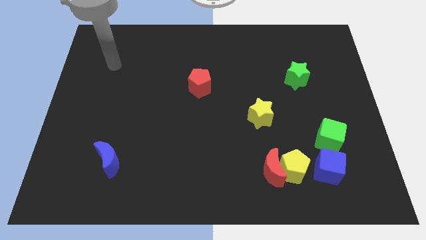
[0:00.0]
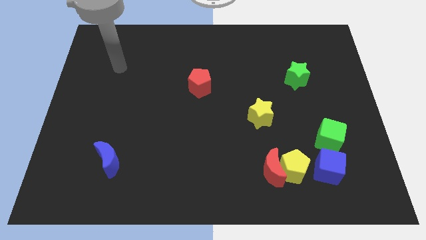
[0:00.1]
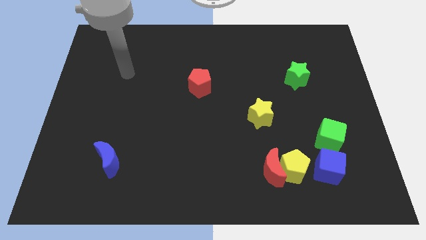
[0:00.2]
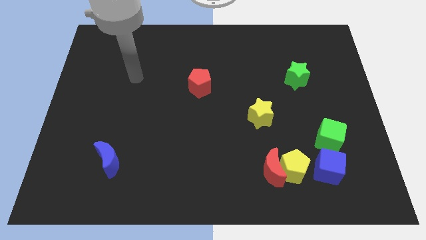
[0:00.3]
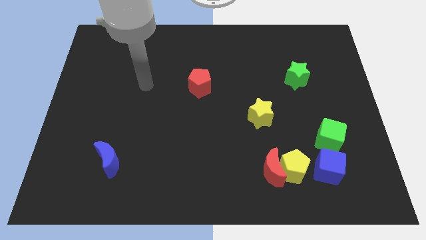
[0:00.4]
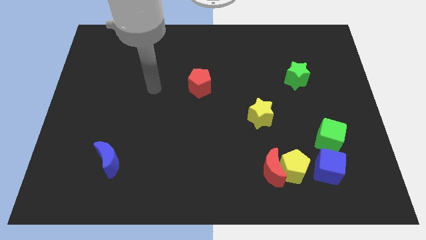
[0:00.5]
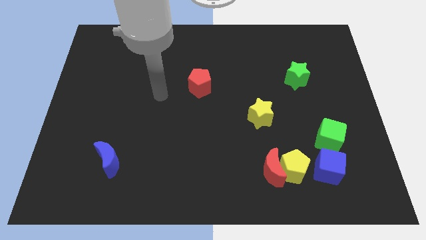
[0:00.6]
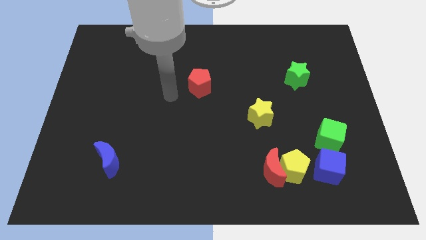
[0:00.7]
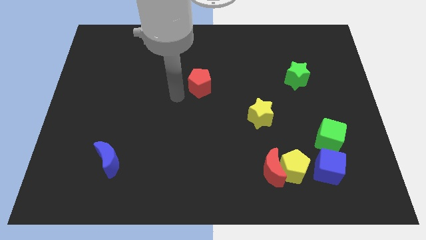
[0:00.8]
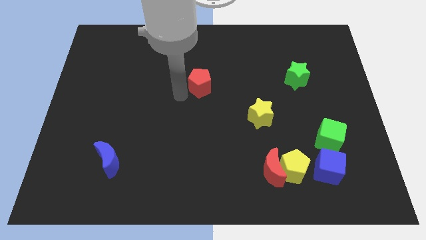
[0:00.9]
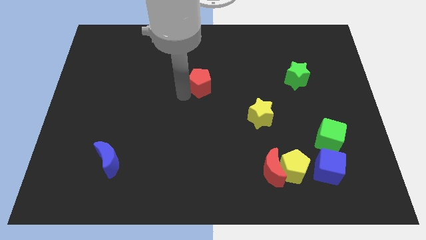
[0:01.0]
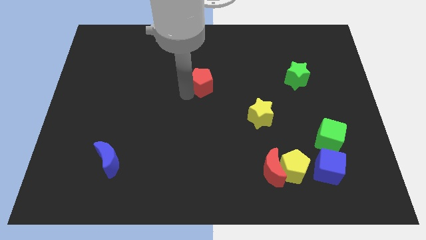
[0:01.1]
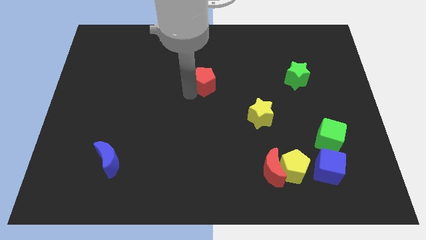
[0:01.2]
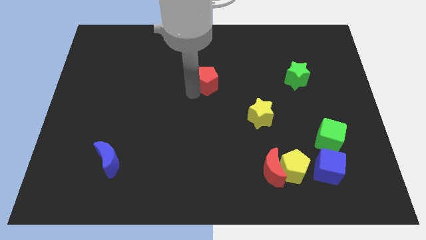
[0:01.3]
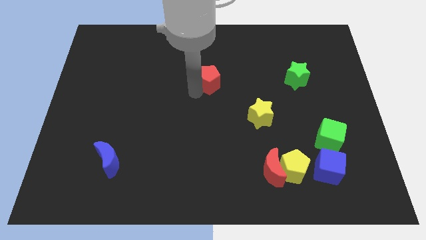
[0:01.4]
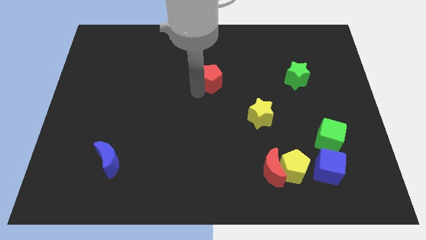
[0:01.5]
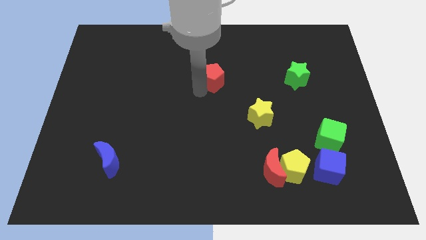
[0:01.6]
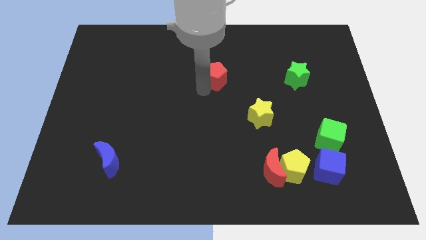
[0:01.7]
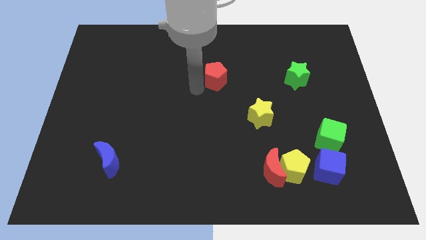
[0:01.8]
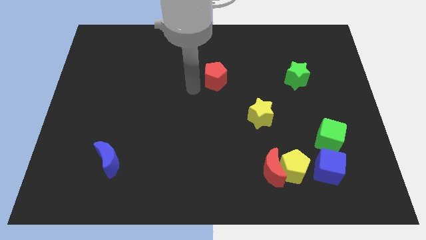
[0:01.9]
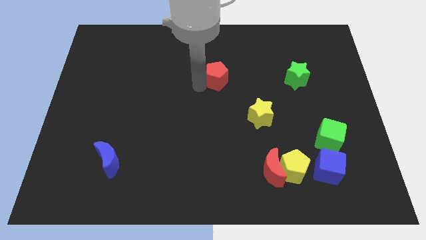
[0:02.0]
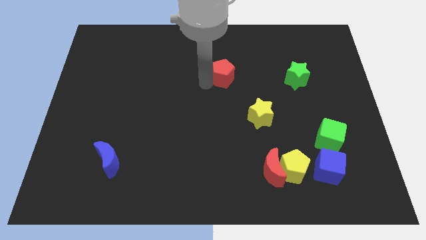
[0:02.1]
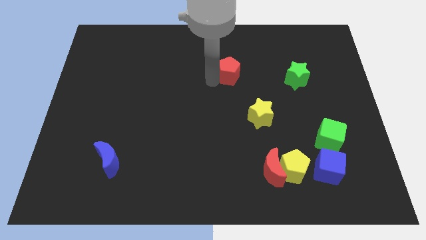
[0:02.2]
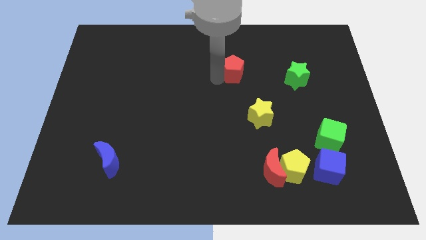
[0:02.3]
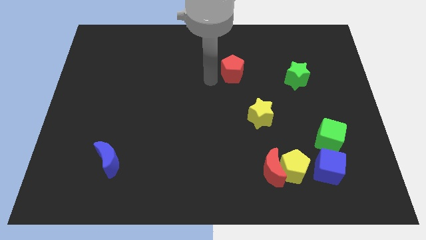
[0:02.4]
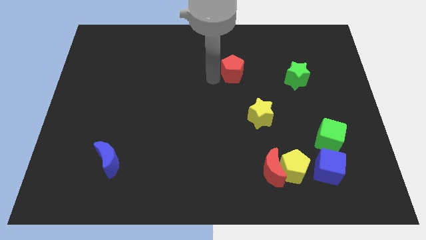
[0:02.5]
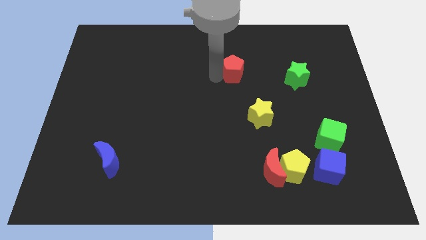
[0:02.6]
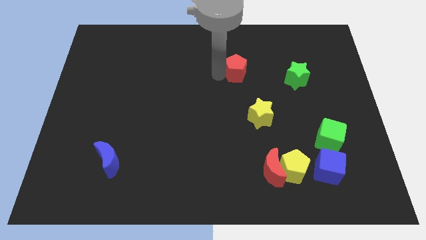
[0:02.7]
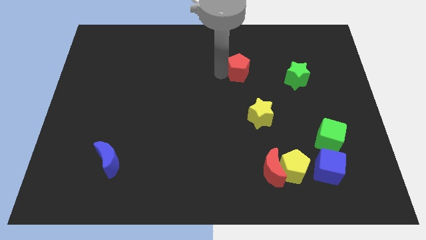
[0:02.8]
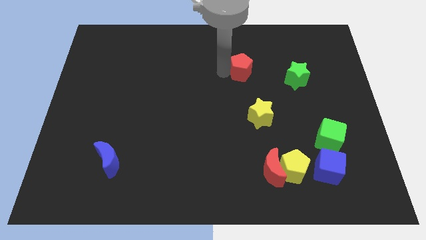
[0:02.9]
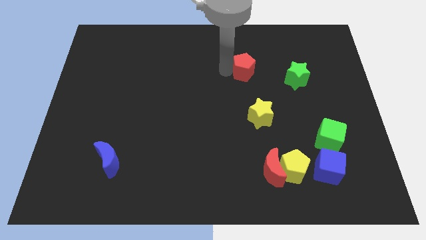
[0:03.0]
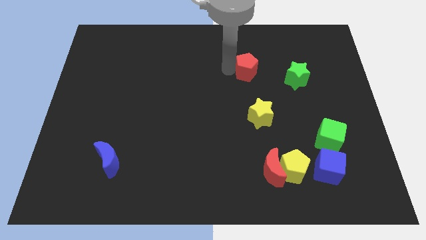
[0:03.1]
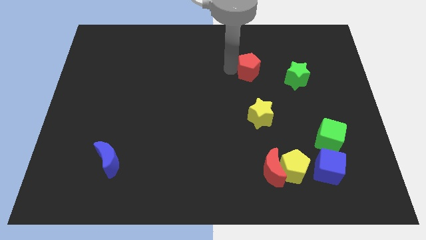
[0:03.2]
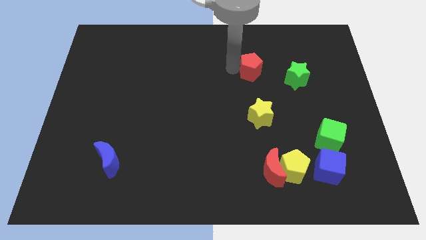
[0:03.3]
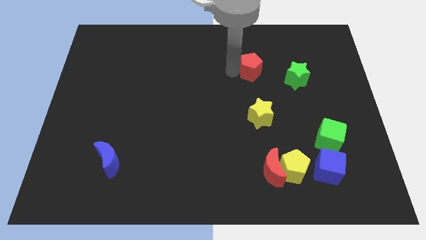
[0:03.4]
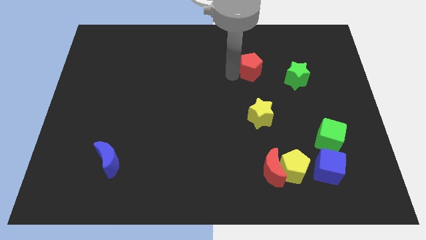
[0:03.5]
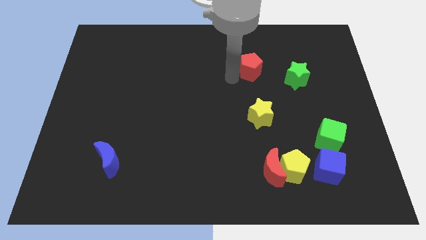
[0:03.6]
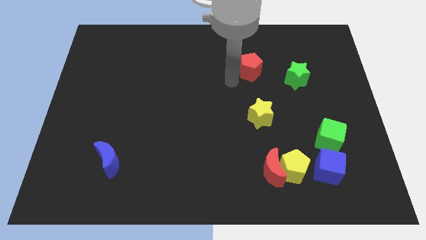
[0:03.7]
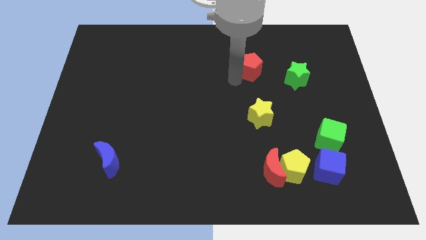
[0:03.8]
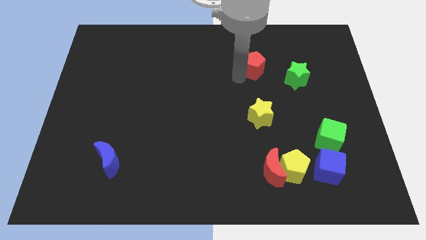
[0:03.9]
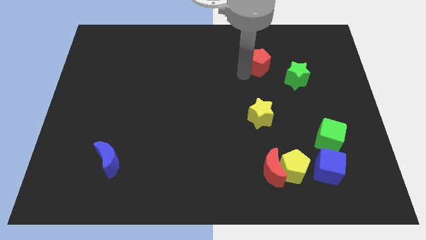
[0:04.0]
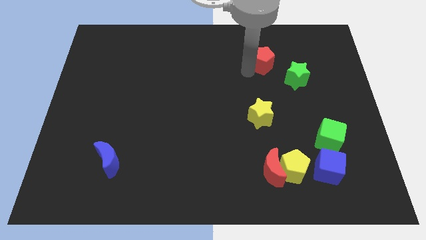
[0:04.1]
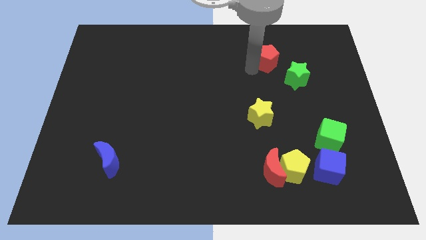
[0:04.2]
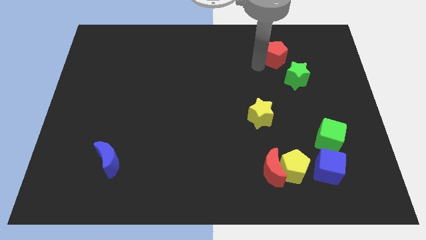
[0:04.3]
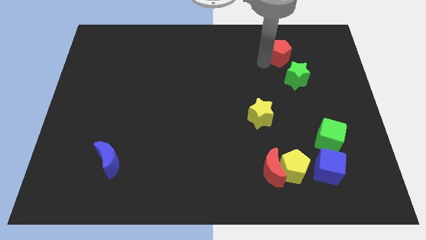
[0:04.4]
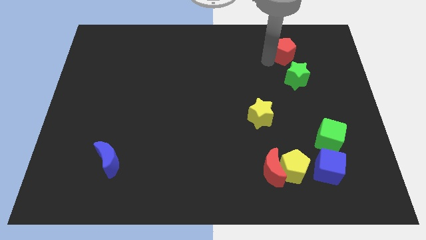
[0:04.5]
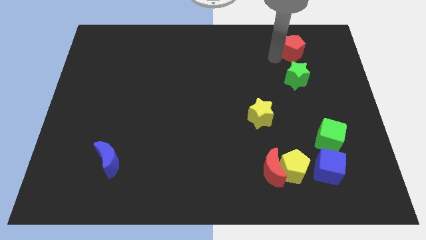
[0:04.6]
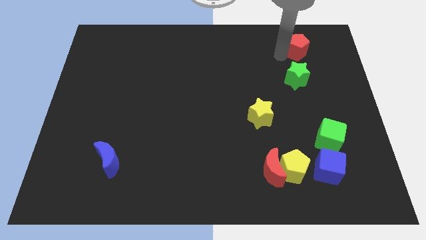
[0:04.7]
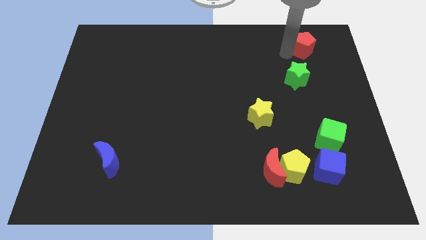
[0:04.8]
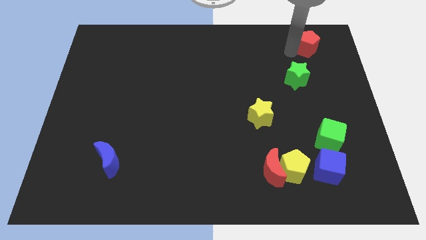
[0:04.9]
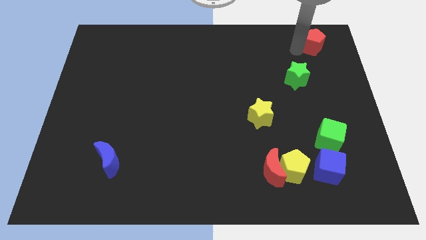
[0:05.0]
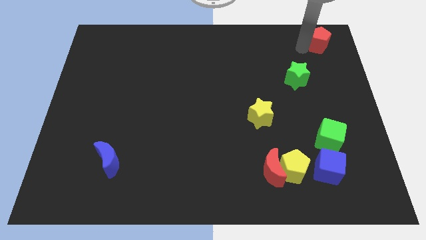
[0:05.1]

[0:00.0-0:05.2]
put the red pentagon to the upper right corner

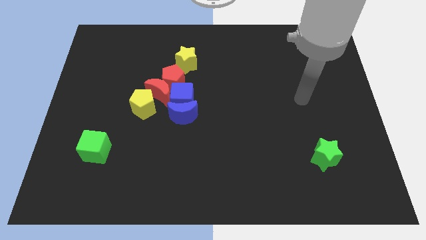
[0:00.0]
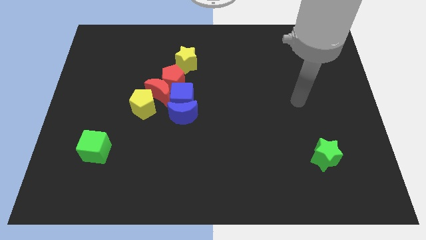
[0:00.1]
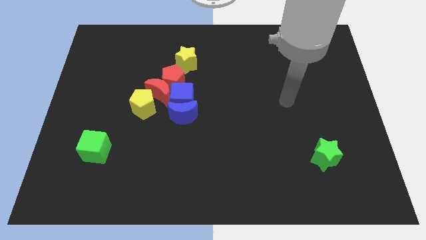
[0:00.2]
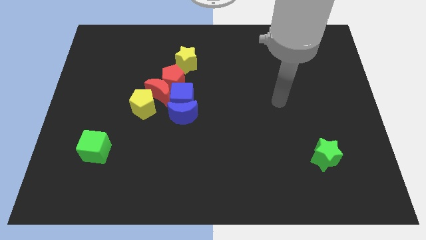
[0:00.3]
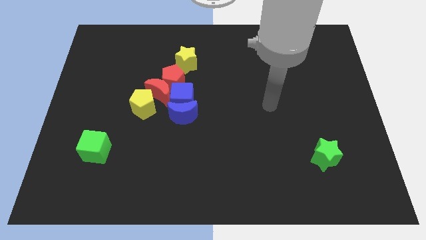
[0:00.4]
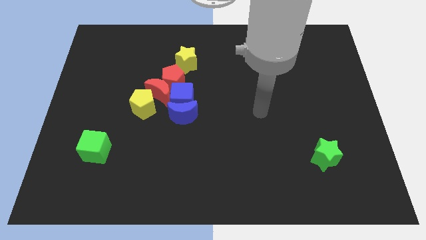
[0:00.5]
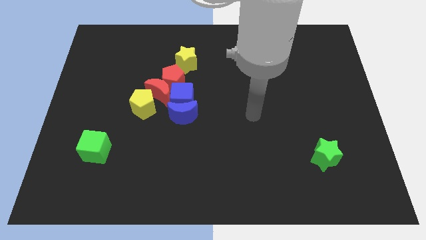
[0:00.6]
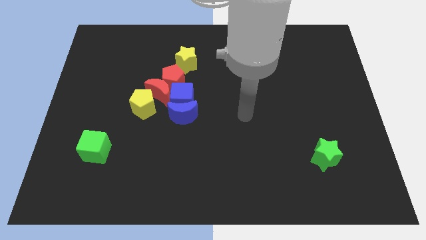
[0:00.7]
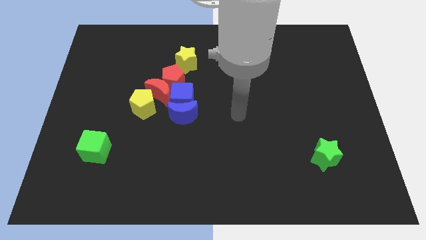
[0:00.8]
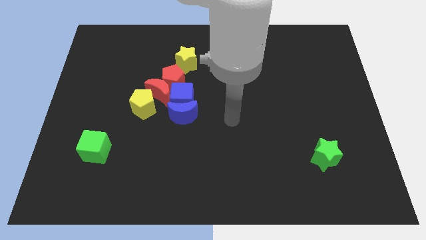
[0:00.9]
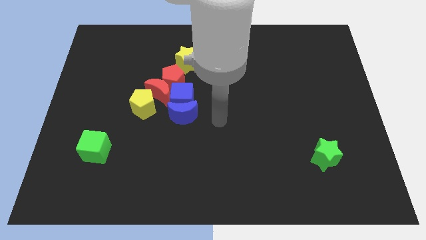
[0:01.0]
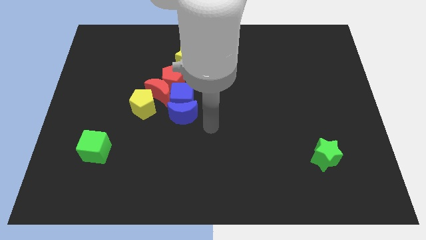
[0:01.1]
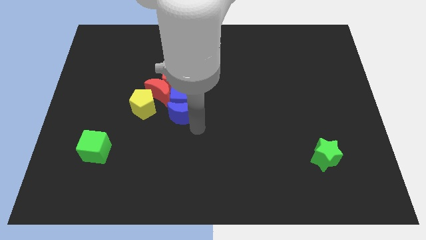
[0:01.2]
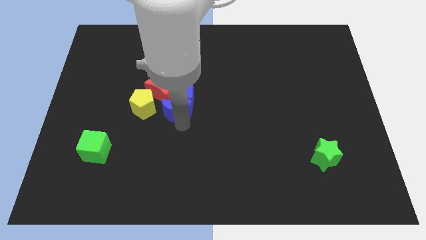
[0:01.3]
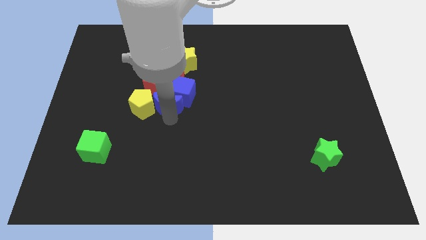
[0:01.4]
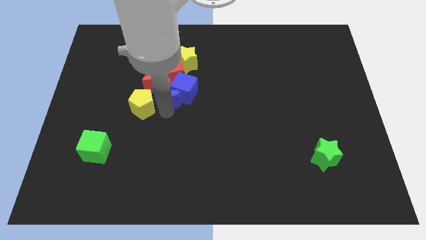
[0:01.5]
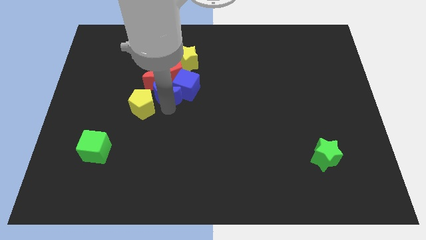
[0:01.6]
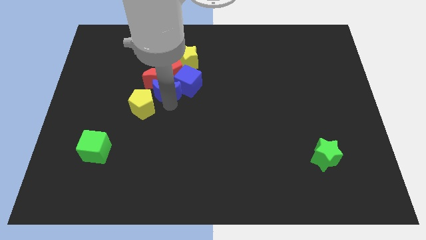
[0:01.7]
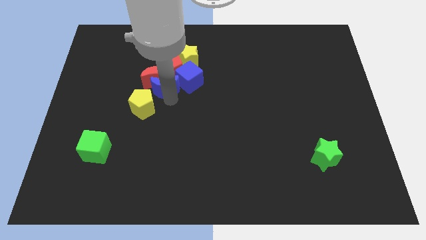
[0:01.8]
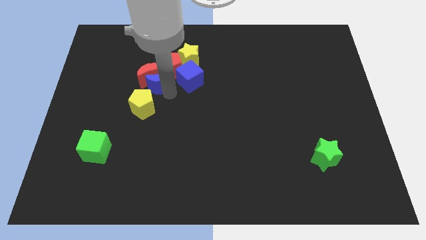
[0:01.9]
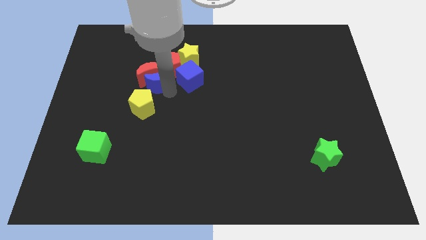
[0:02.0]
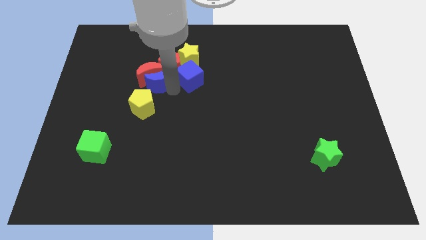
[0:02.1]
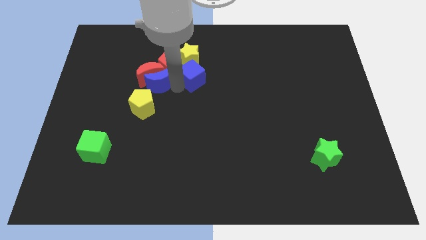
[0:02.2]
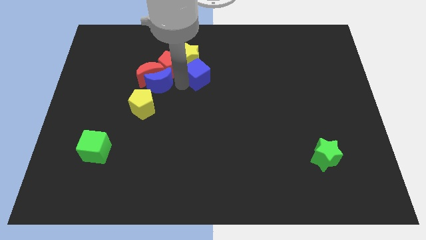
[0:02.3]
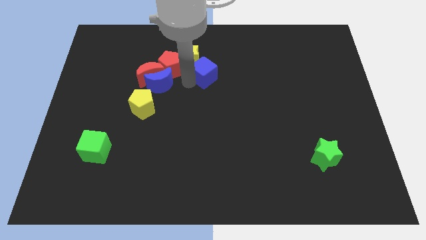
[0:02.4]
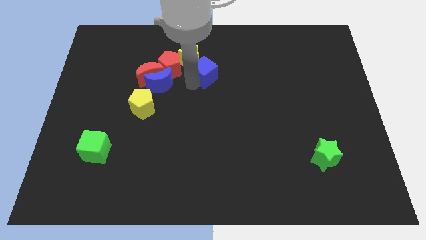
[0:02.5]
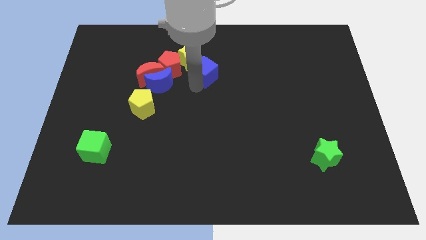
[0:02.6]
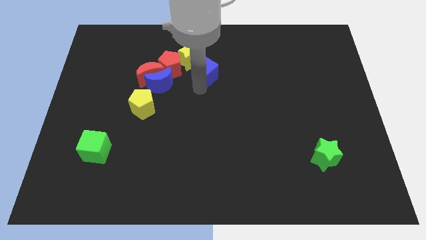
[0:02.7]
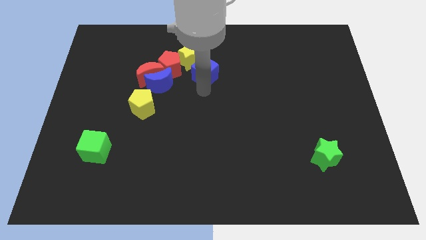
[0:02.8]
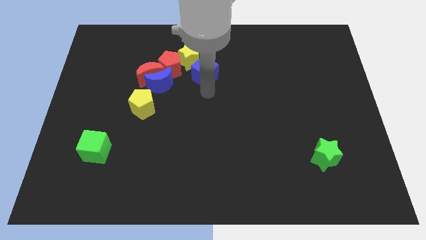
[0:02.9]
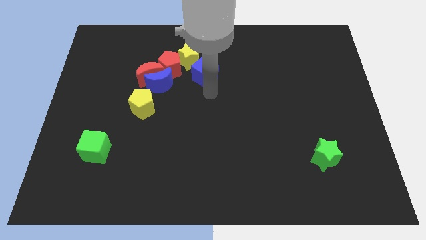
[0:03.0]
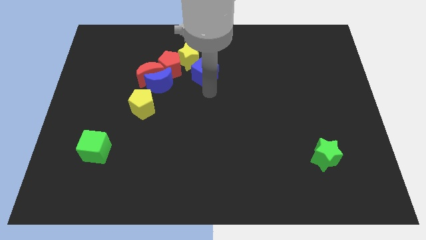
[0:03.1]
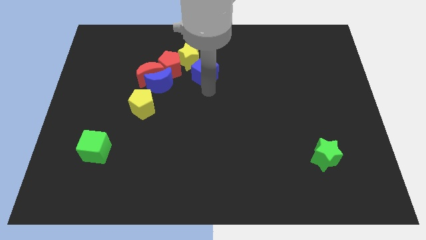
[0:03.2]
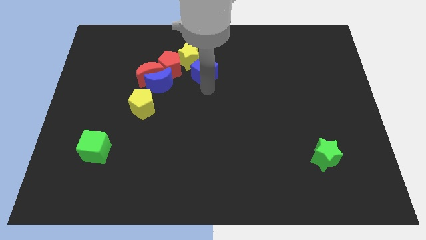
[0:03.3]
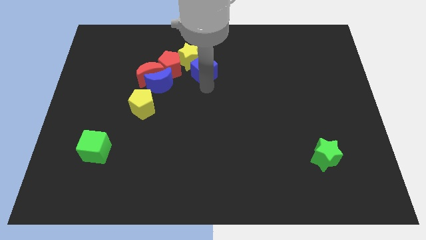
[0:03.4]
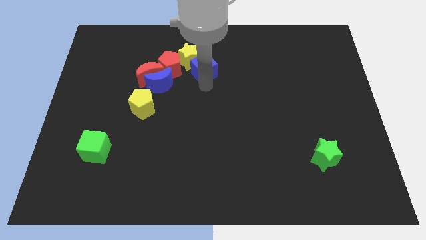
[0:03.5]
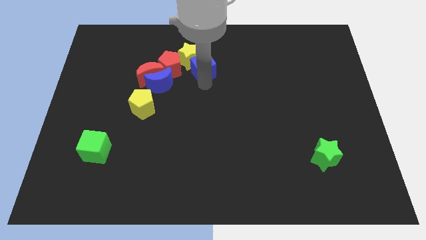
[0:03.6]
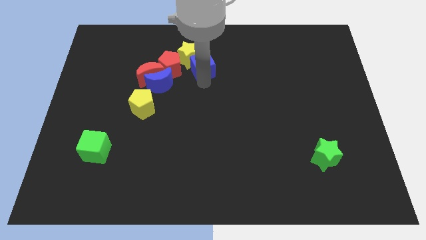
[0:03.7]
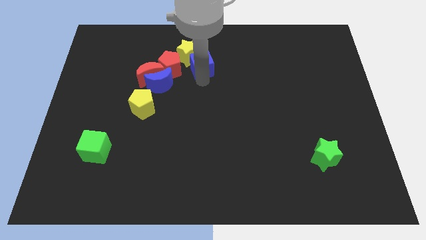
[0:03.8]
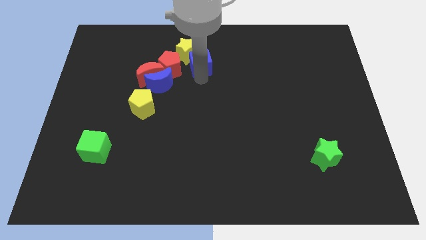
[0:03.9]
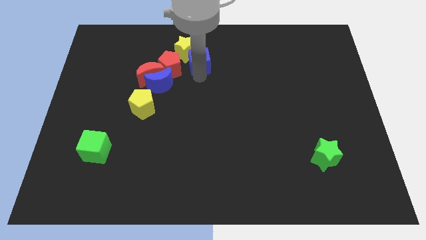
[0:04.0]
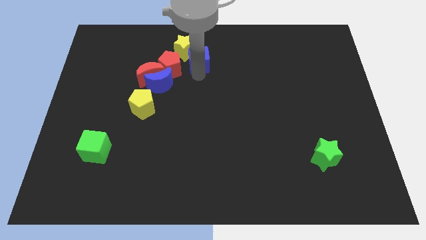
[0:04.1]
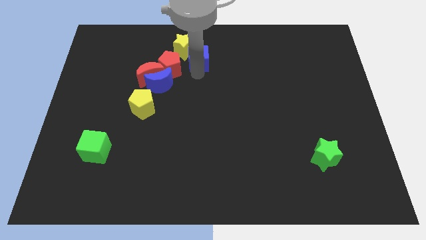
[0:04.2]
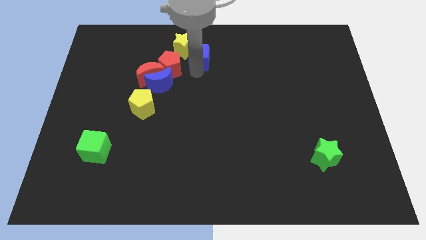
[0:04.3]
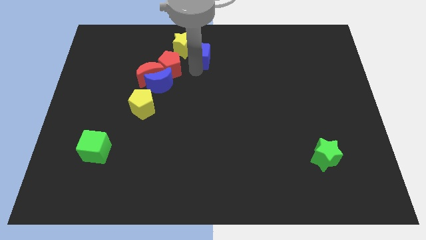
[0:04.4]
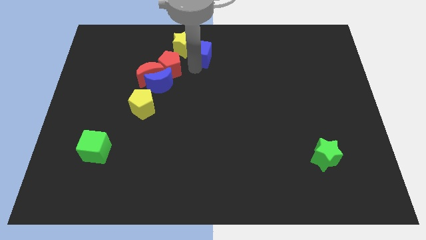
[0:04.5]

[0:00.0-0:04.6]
push the blue cube to the top side
